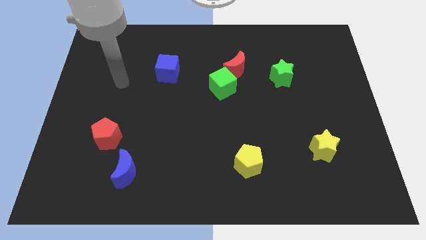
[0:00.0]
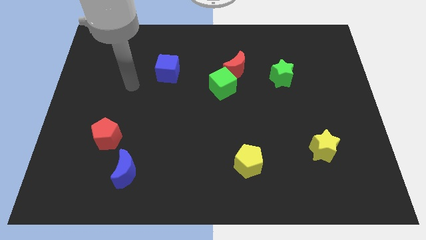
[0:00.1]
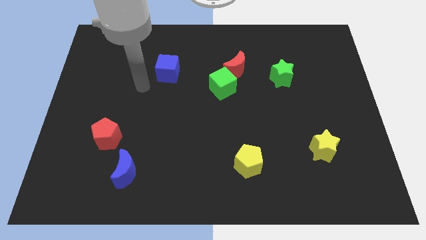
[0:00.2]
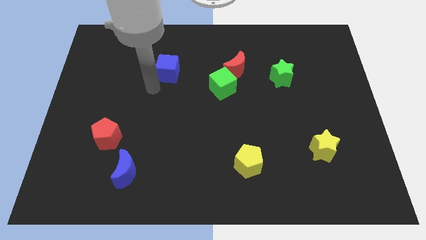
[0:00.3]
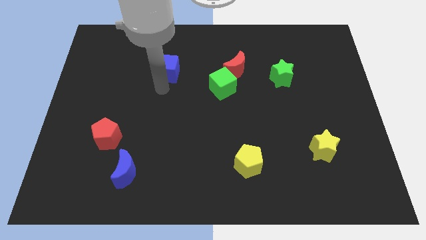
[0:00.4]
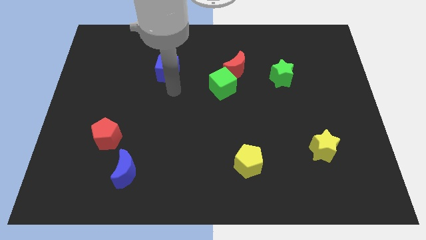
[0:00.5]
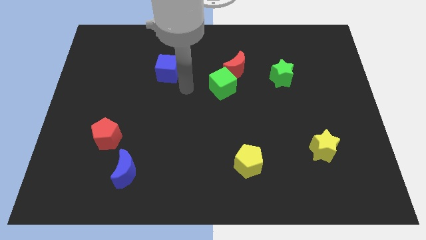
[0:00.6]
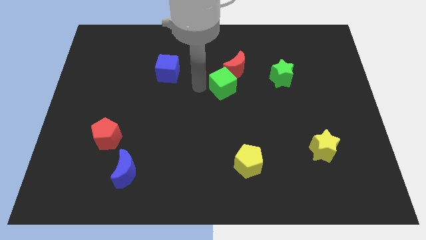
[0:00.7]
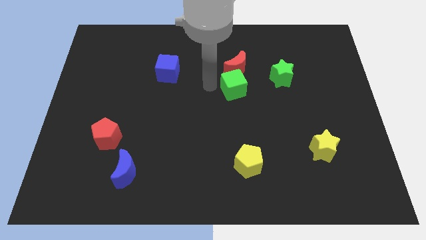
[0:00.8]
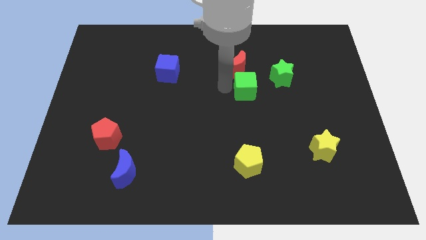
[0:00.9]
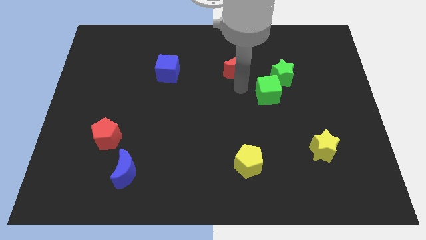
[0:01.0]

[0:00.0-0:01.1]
pull the red moon apart from the green cube

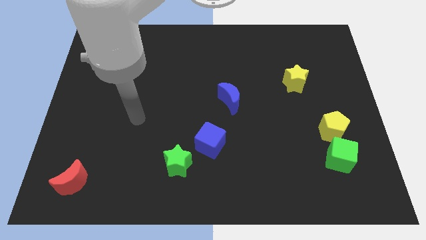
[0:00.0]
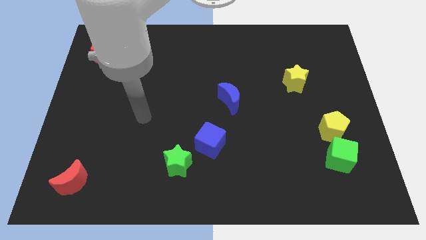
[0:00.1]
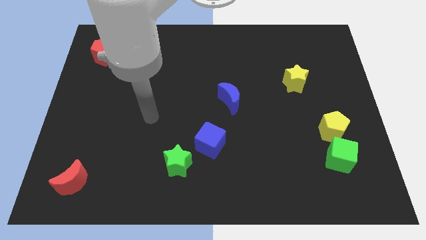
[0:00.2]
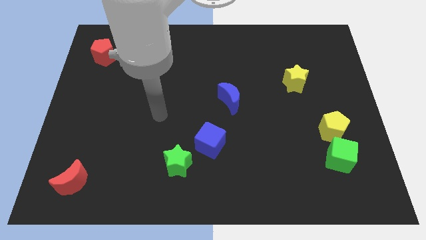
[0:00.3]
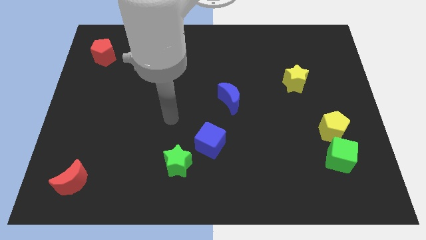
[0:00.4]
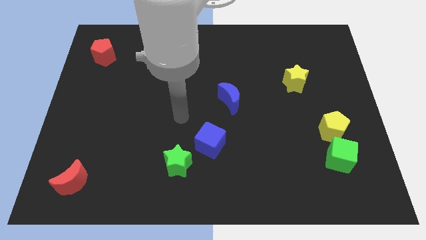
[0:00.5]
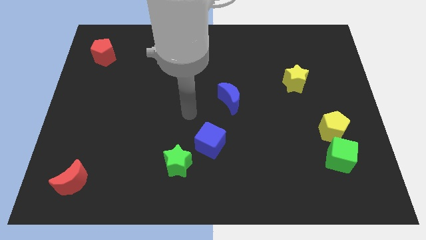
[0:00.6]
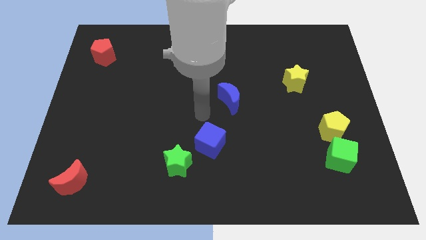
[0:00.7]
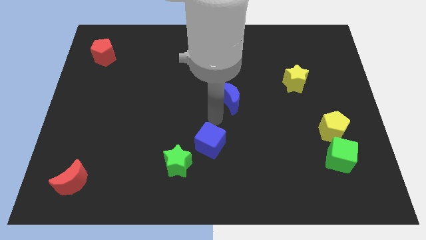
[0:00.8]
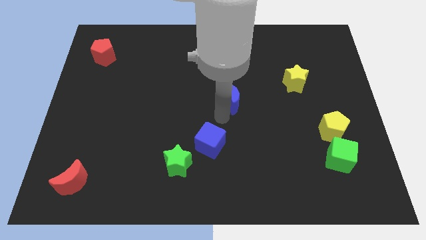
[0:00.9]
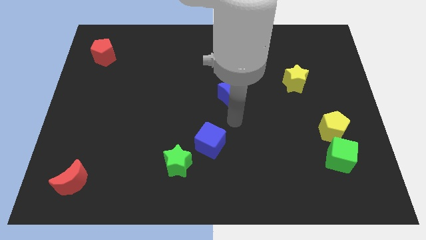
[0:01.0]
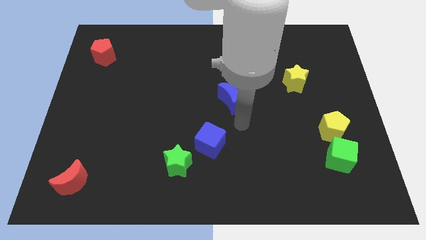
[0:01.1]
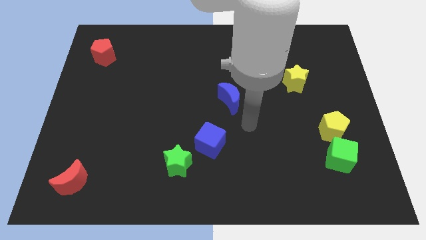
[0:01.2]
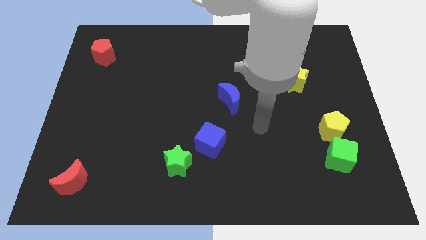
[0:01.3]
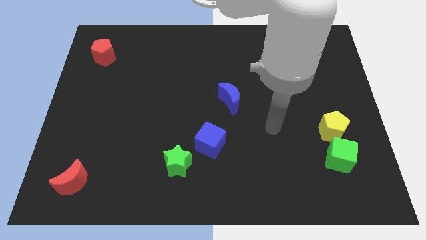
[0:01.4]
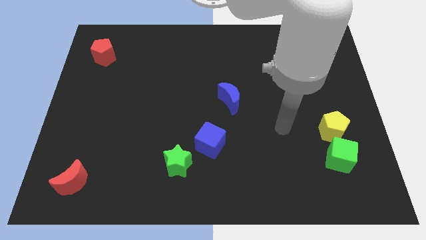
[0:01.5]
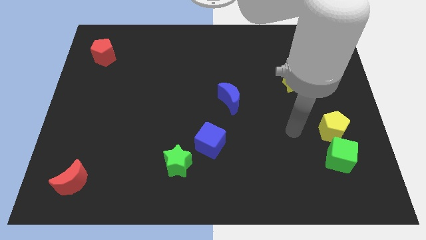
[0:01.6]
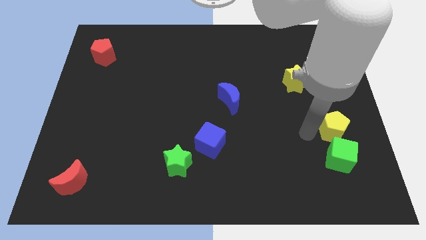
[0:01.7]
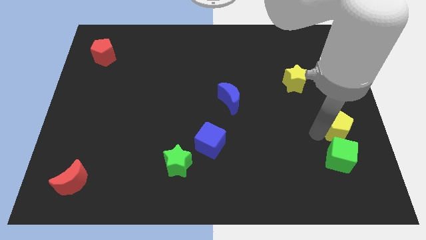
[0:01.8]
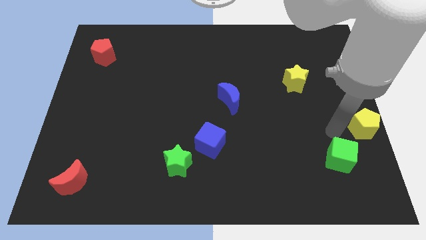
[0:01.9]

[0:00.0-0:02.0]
separate the green cube from the yellow pentagon

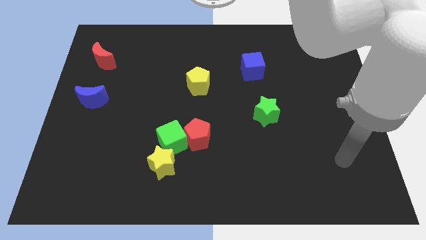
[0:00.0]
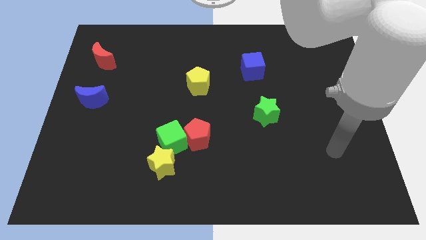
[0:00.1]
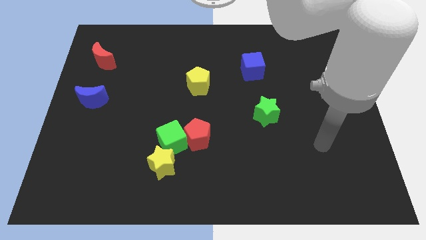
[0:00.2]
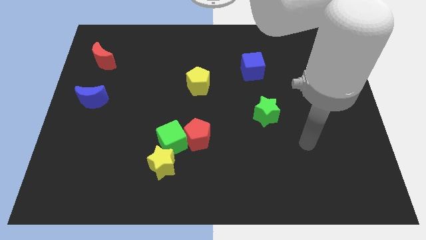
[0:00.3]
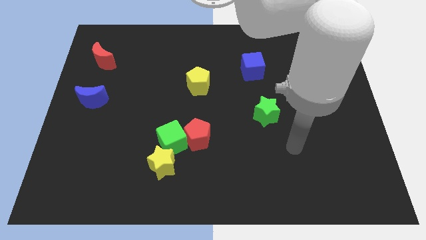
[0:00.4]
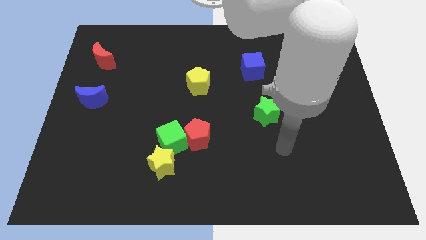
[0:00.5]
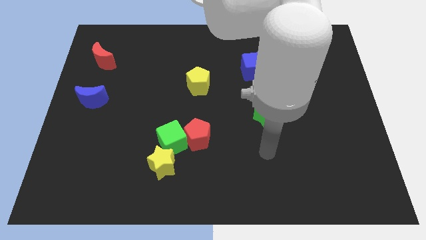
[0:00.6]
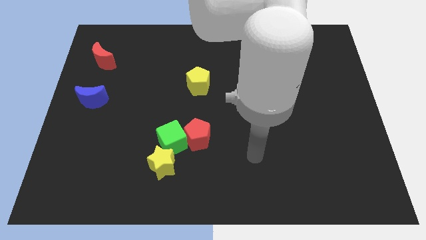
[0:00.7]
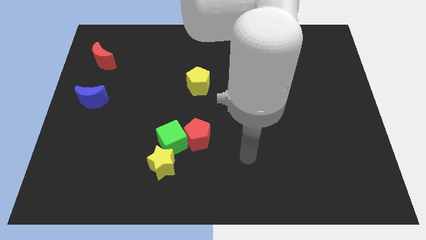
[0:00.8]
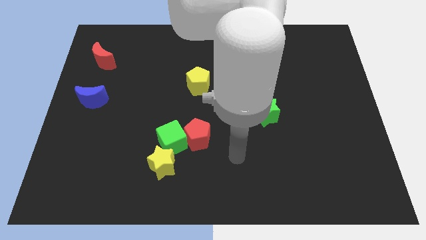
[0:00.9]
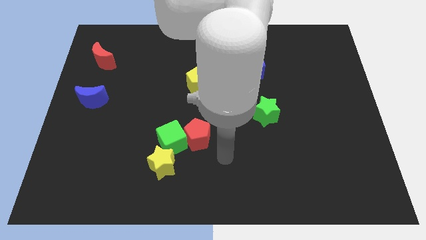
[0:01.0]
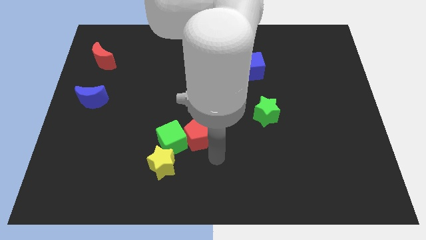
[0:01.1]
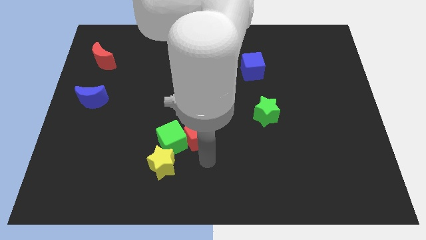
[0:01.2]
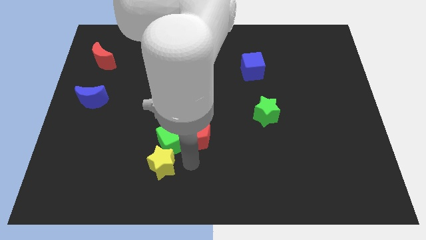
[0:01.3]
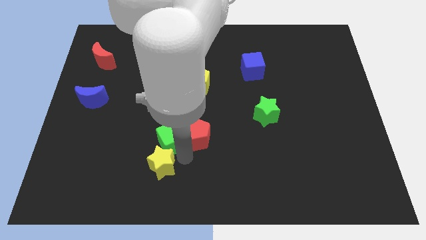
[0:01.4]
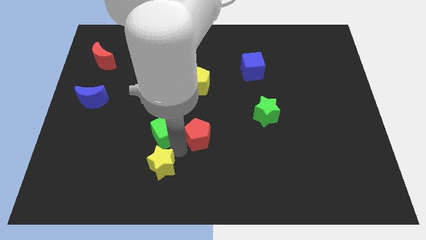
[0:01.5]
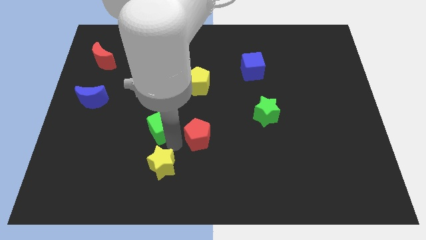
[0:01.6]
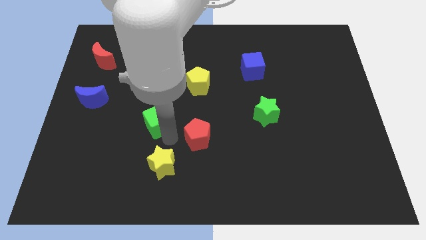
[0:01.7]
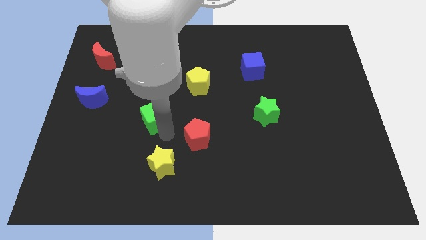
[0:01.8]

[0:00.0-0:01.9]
separate the green cube from the red pentagon and yellow star

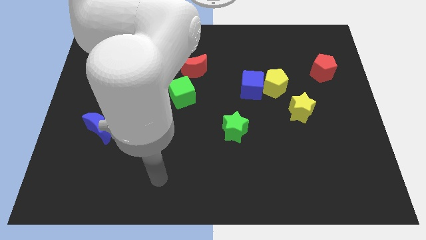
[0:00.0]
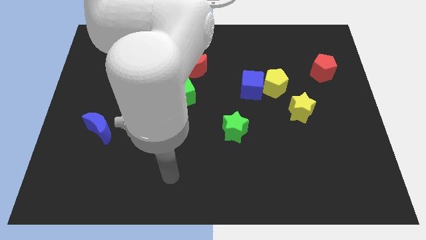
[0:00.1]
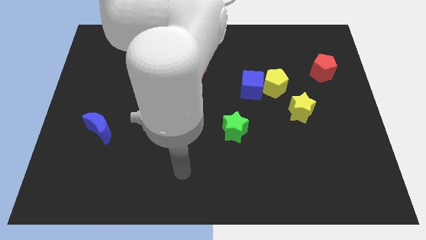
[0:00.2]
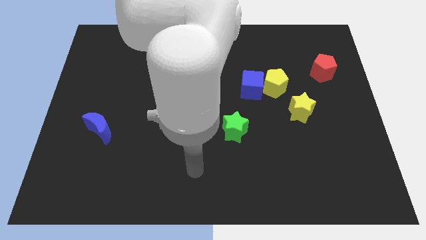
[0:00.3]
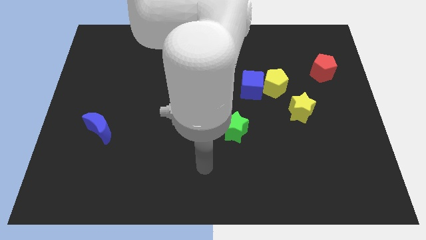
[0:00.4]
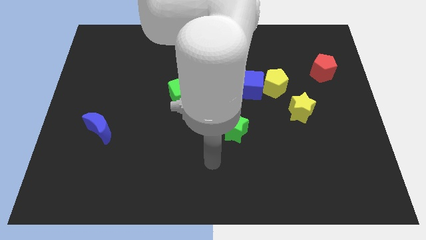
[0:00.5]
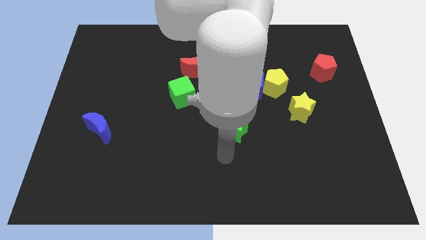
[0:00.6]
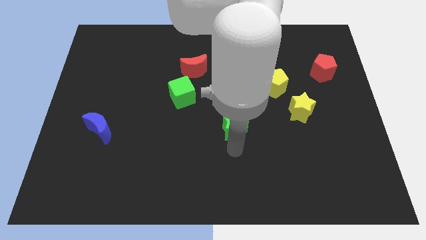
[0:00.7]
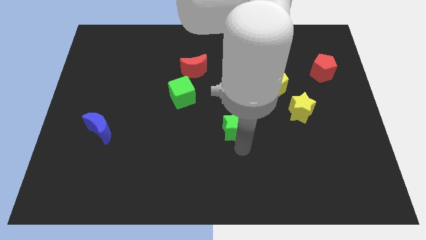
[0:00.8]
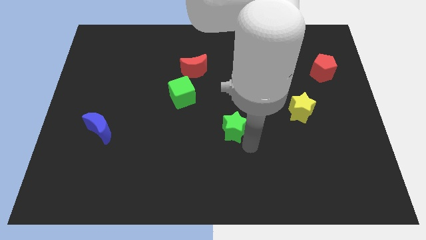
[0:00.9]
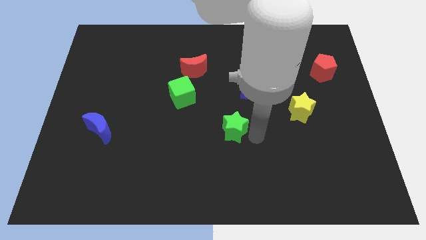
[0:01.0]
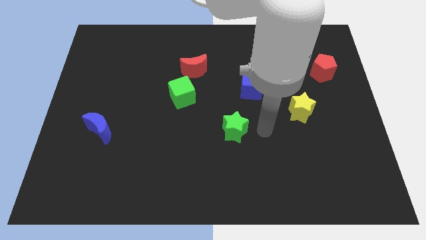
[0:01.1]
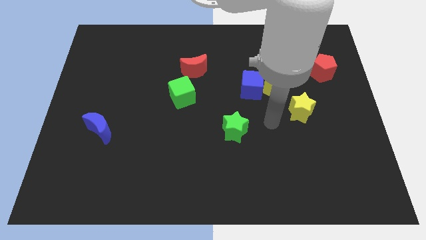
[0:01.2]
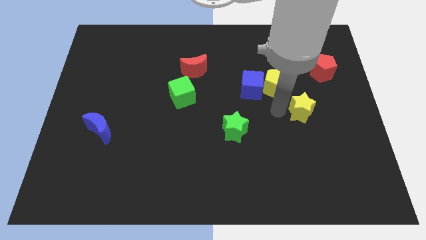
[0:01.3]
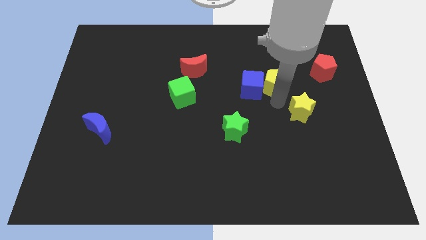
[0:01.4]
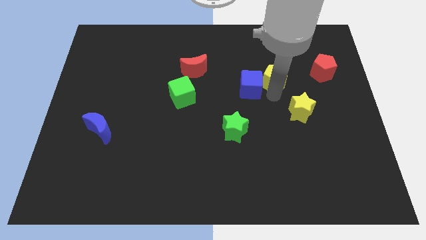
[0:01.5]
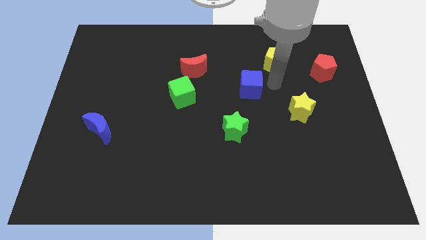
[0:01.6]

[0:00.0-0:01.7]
pull the blue cube apart from the yellow pentagon

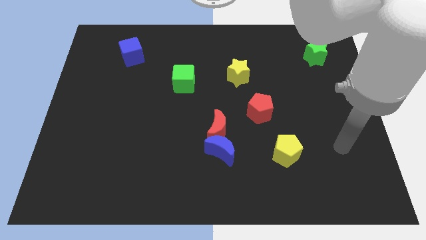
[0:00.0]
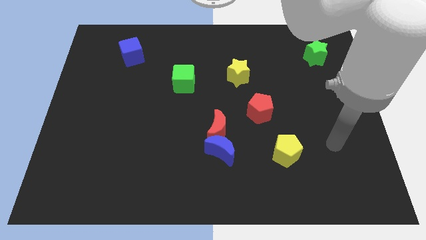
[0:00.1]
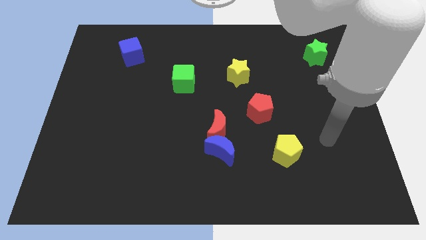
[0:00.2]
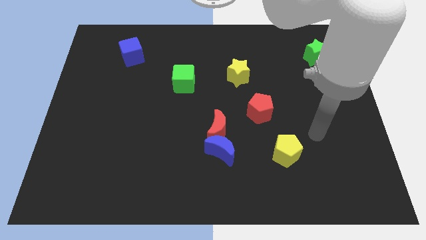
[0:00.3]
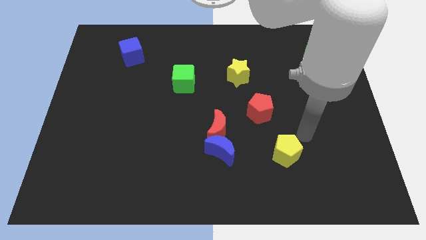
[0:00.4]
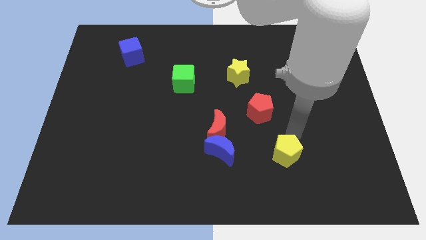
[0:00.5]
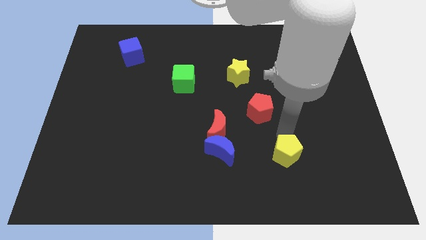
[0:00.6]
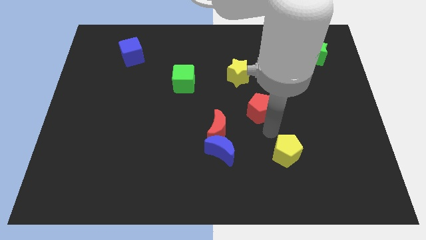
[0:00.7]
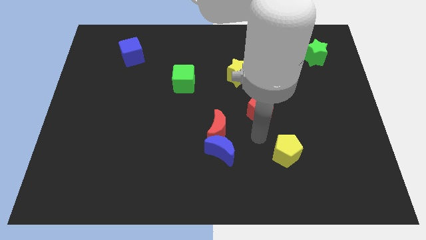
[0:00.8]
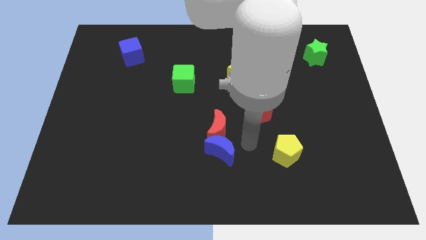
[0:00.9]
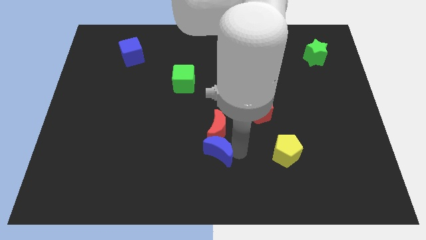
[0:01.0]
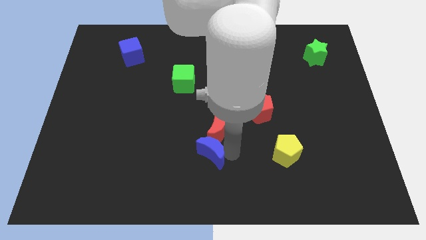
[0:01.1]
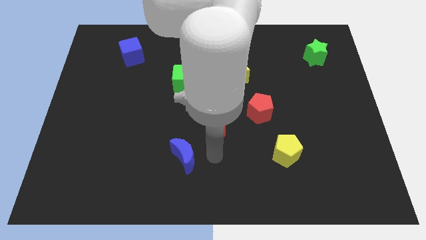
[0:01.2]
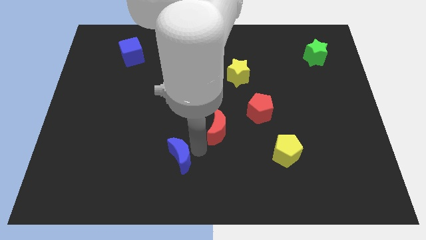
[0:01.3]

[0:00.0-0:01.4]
separate the red moon from the blue moon

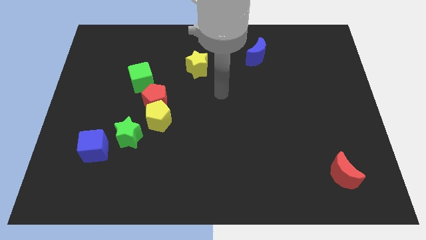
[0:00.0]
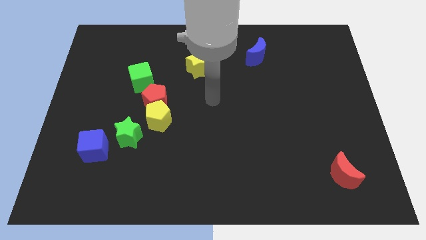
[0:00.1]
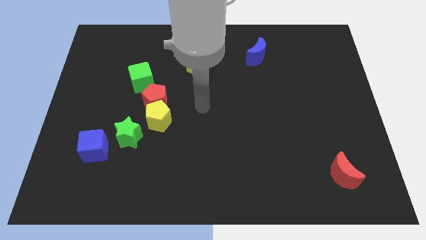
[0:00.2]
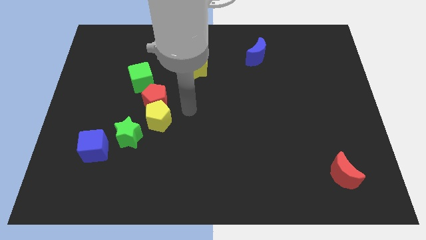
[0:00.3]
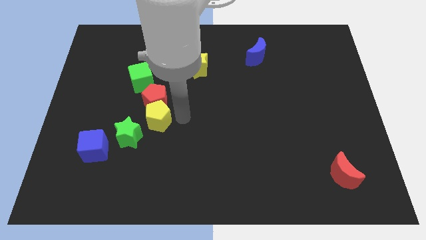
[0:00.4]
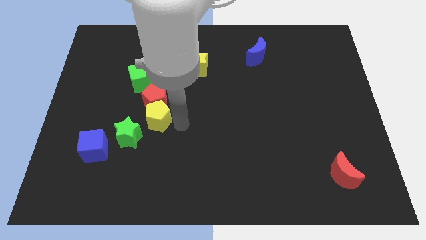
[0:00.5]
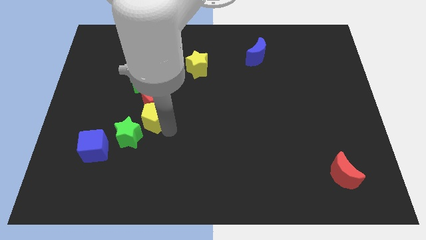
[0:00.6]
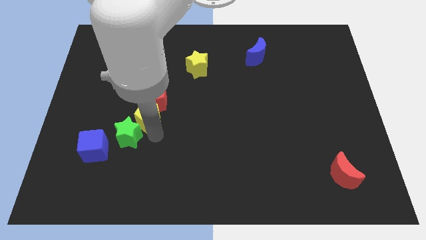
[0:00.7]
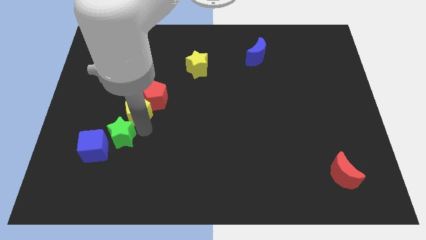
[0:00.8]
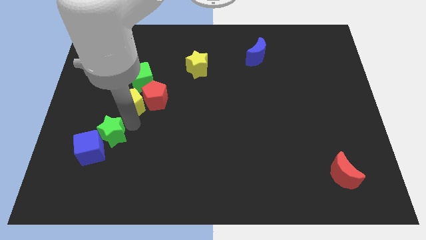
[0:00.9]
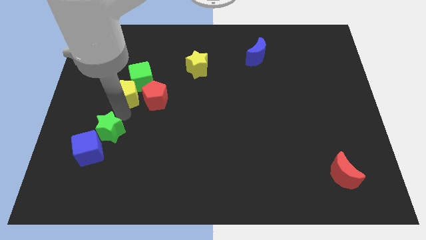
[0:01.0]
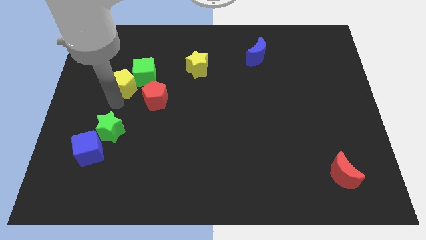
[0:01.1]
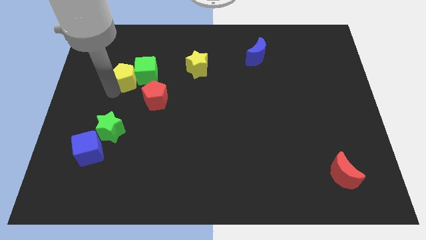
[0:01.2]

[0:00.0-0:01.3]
pull the yellow pentagon apart from the red pentagon and green star
